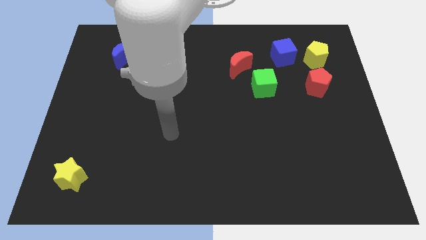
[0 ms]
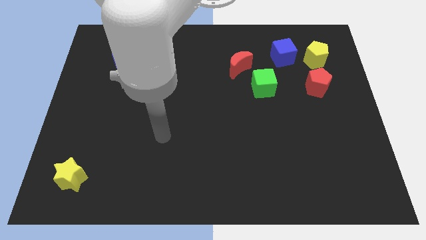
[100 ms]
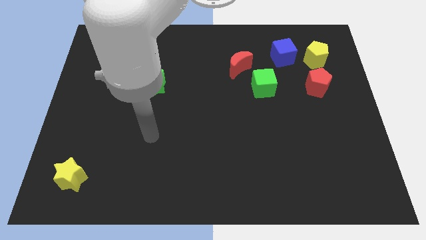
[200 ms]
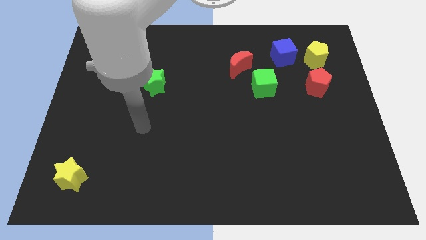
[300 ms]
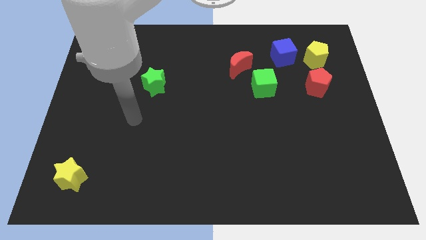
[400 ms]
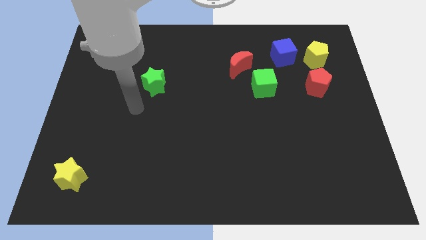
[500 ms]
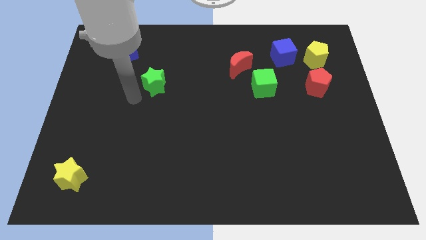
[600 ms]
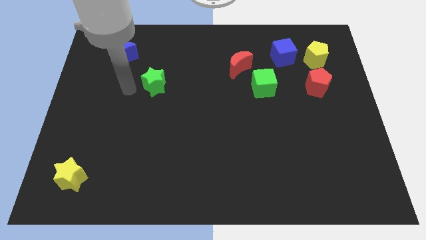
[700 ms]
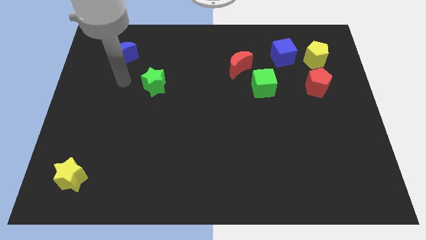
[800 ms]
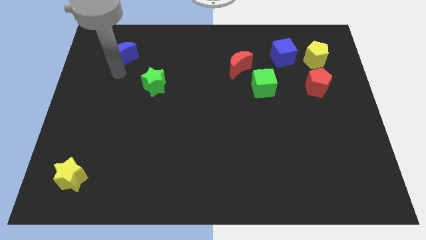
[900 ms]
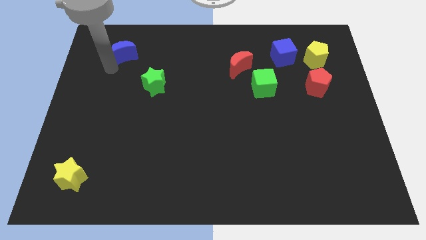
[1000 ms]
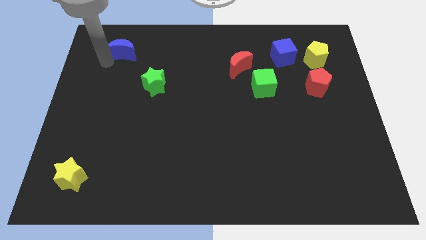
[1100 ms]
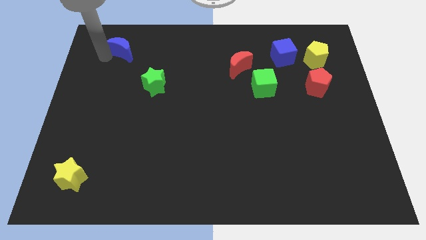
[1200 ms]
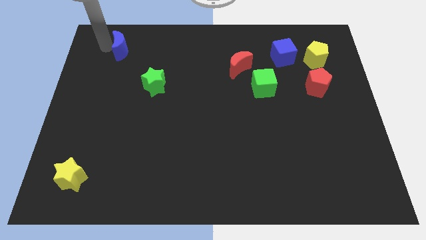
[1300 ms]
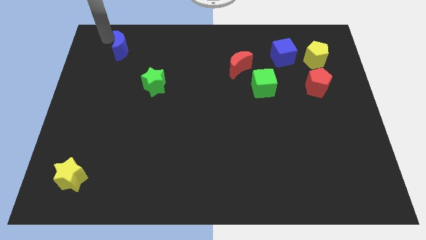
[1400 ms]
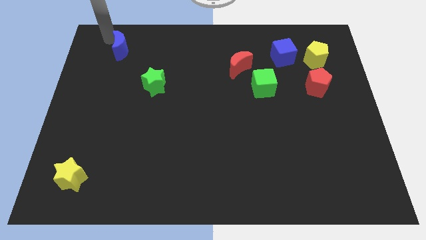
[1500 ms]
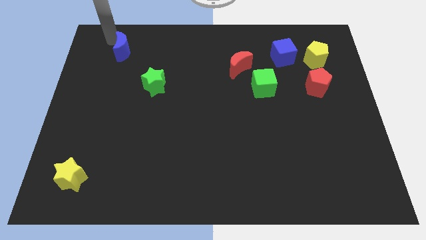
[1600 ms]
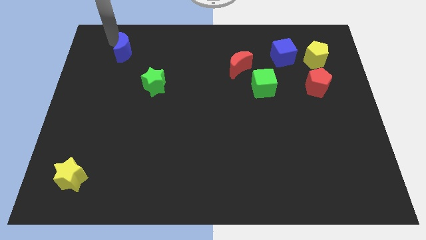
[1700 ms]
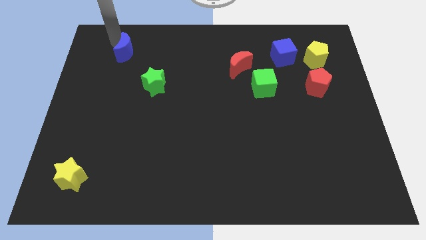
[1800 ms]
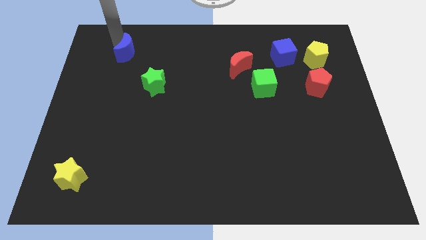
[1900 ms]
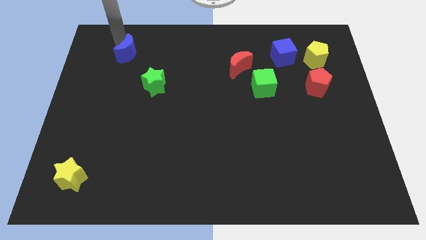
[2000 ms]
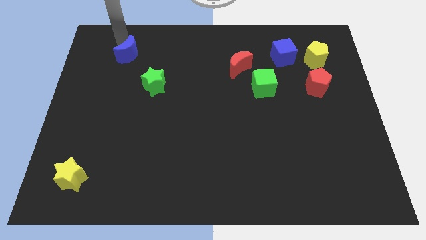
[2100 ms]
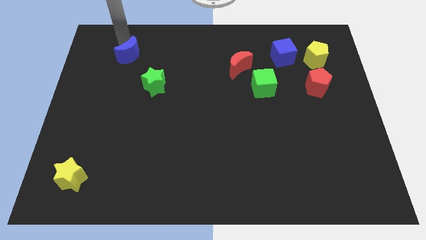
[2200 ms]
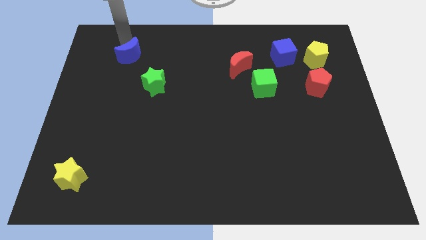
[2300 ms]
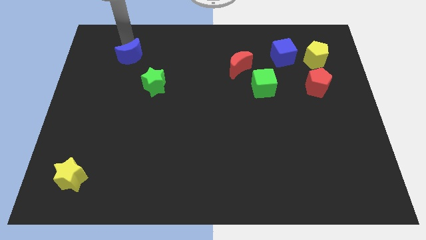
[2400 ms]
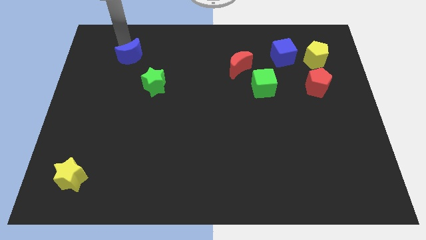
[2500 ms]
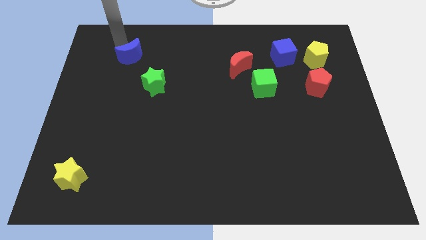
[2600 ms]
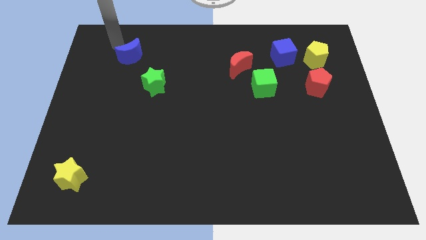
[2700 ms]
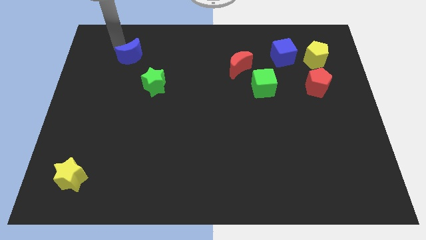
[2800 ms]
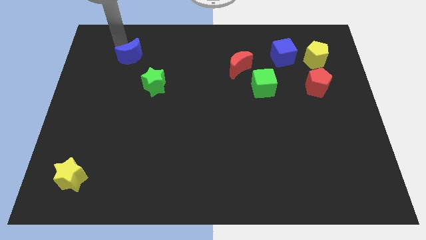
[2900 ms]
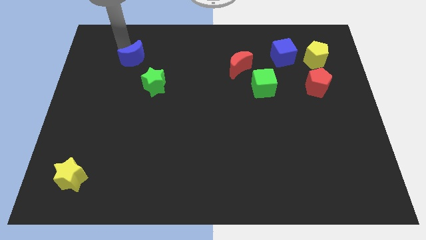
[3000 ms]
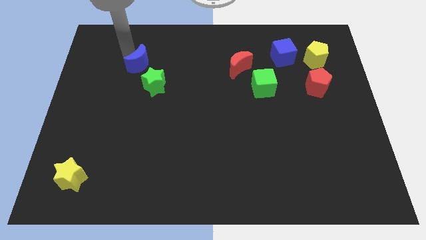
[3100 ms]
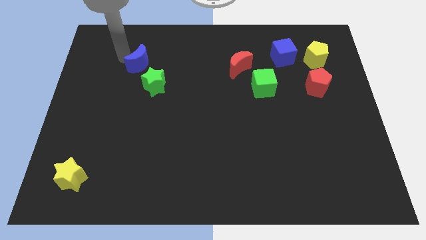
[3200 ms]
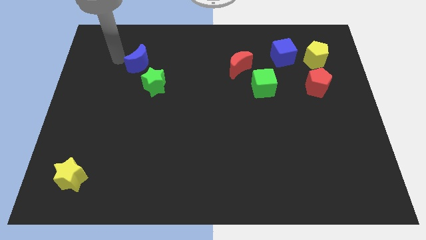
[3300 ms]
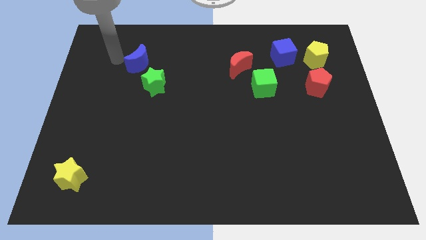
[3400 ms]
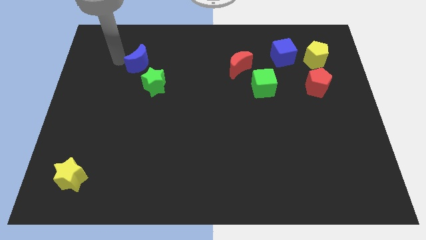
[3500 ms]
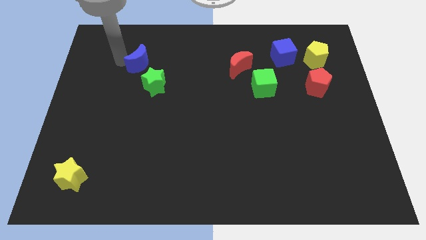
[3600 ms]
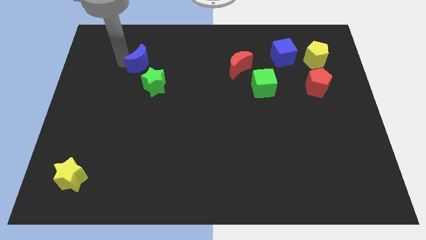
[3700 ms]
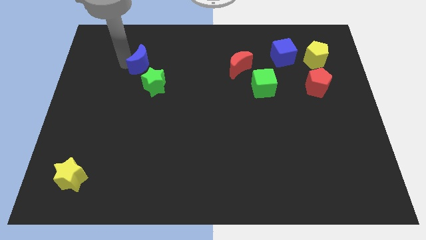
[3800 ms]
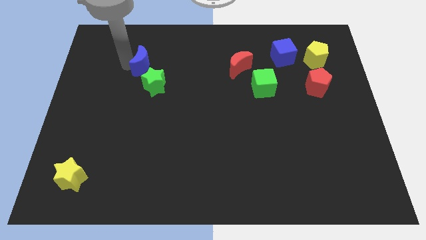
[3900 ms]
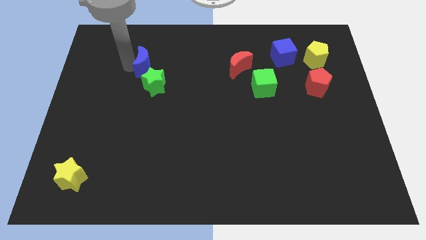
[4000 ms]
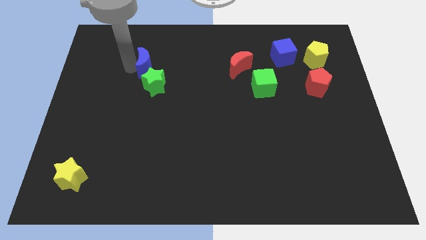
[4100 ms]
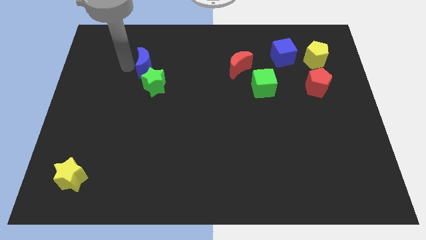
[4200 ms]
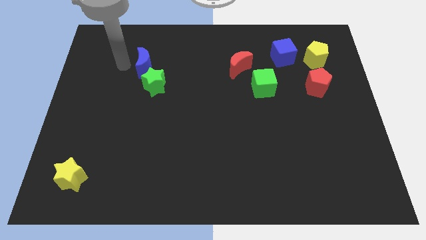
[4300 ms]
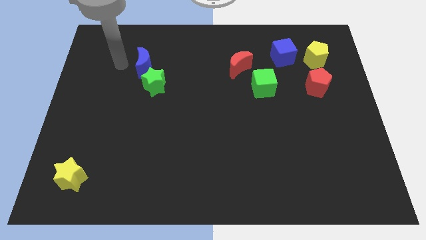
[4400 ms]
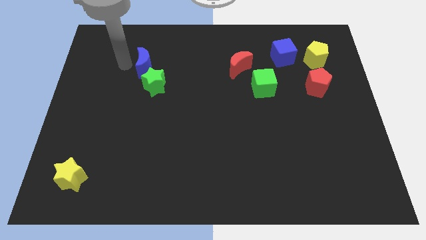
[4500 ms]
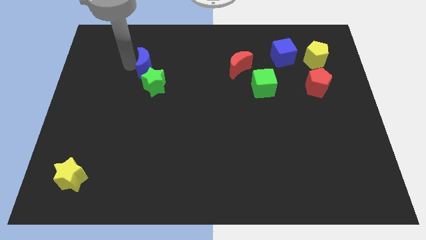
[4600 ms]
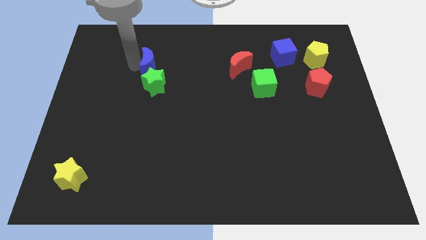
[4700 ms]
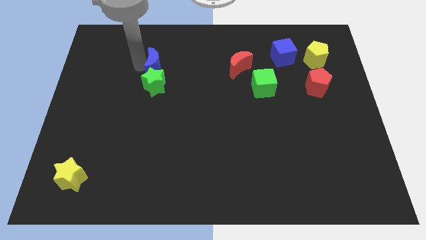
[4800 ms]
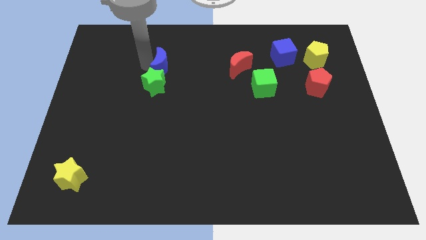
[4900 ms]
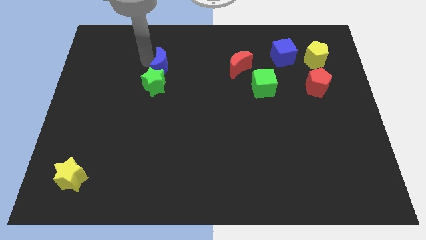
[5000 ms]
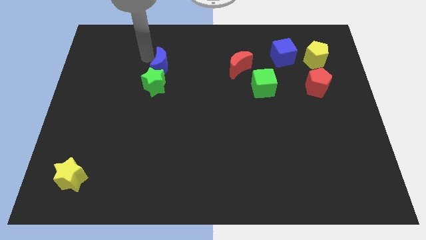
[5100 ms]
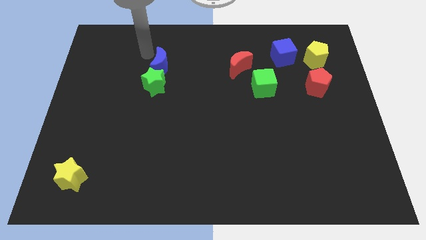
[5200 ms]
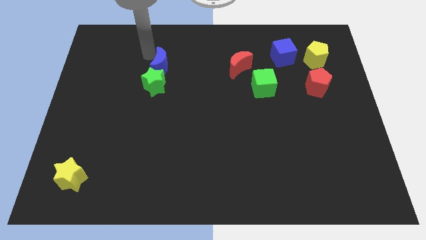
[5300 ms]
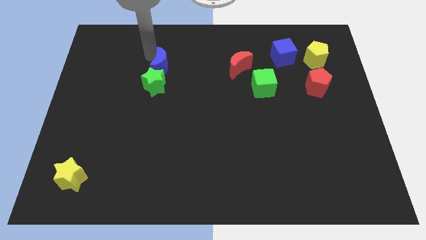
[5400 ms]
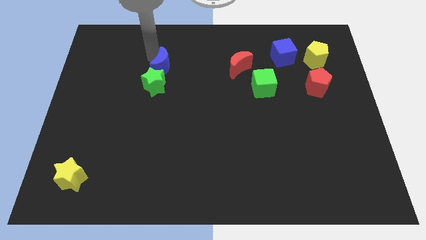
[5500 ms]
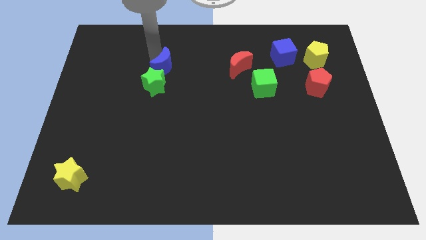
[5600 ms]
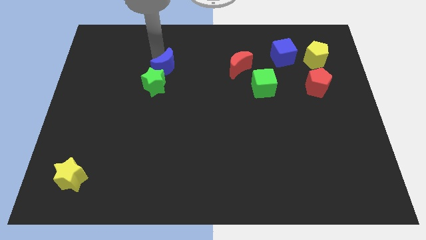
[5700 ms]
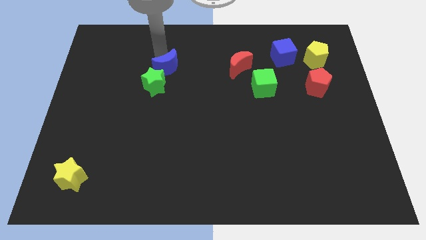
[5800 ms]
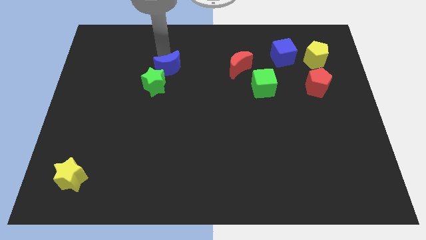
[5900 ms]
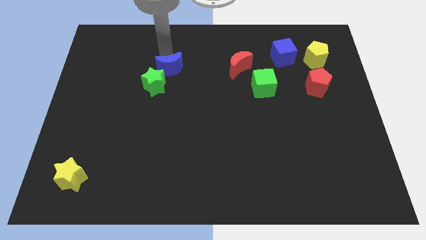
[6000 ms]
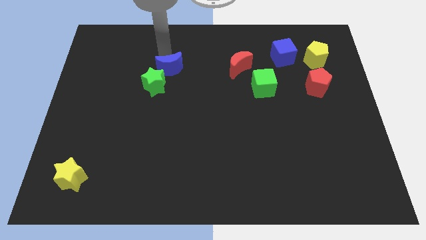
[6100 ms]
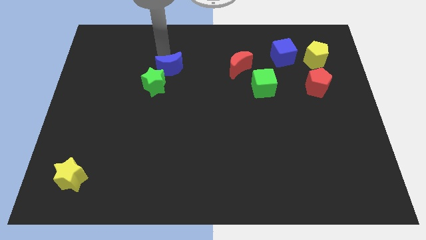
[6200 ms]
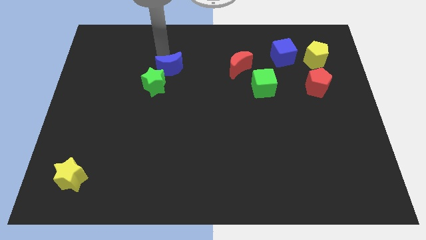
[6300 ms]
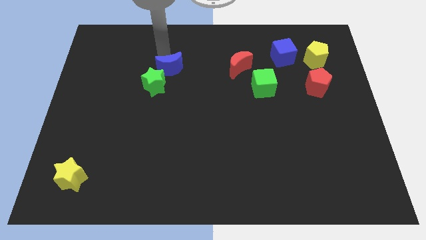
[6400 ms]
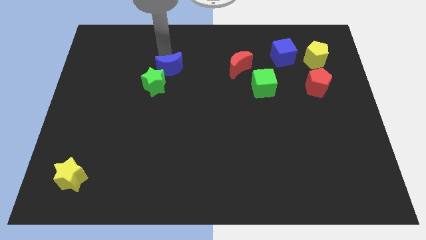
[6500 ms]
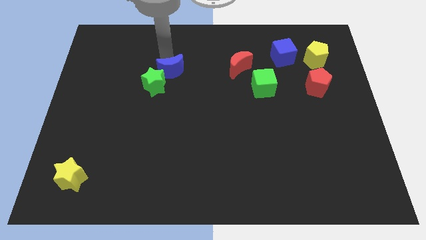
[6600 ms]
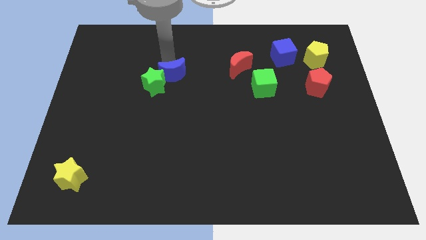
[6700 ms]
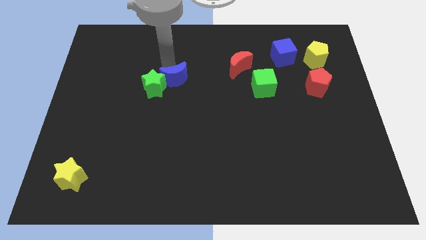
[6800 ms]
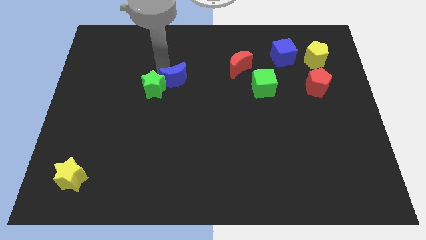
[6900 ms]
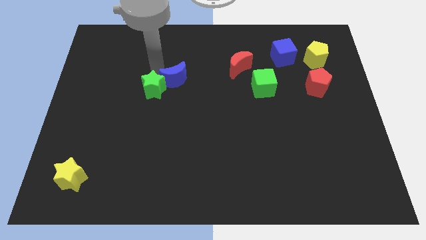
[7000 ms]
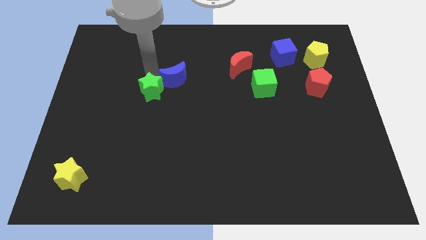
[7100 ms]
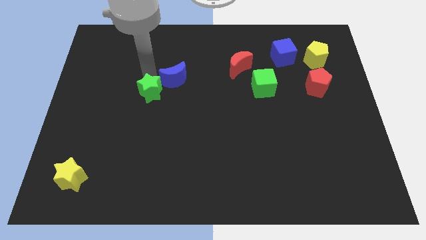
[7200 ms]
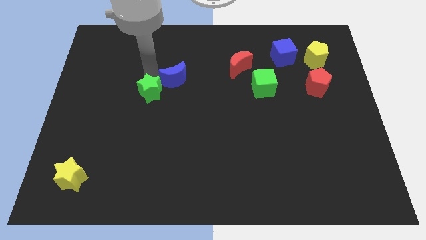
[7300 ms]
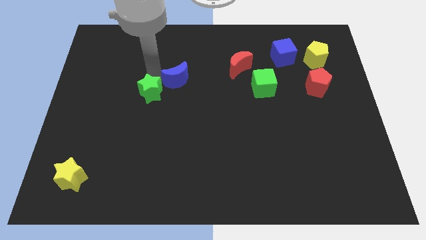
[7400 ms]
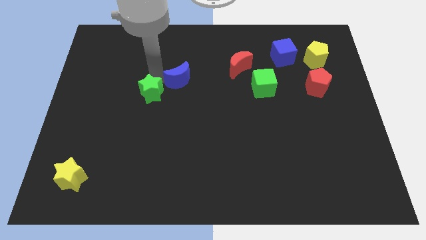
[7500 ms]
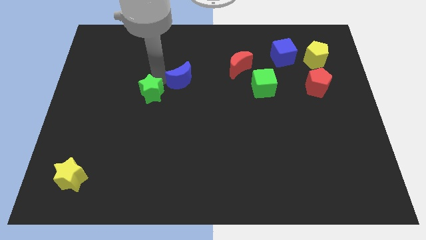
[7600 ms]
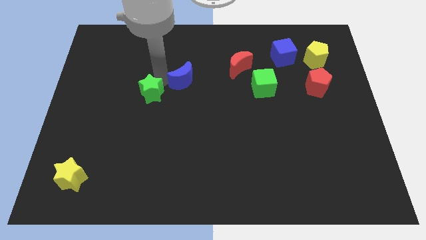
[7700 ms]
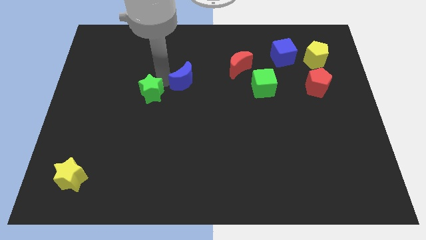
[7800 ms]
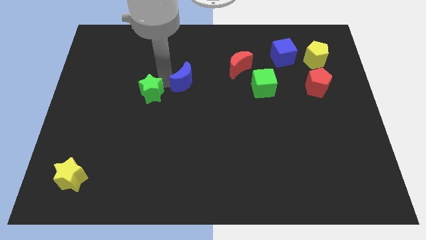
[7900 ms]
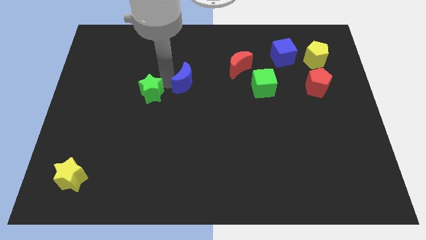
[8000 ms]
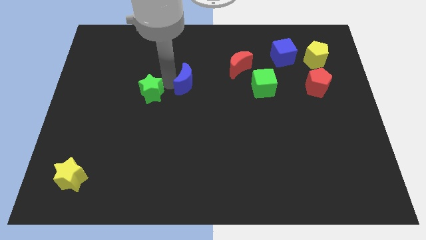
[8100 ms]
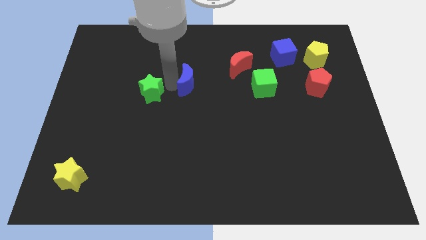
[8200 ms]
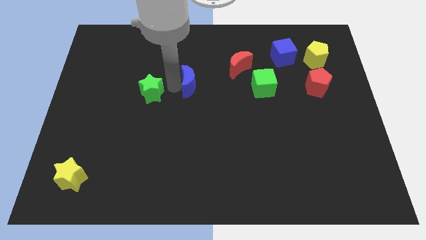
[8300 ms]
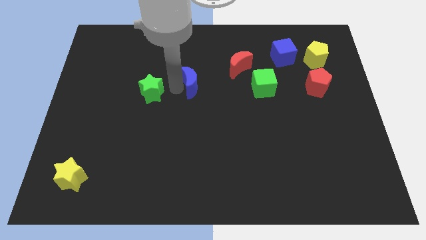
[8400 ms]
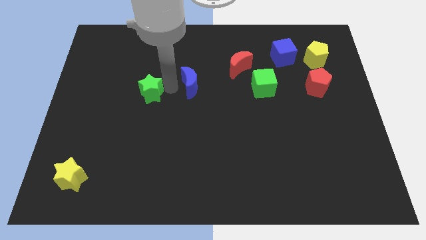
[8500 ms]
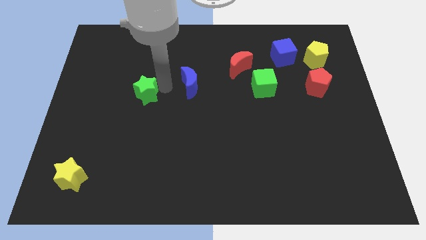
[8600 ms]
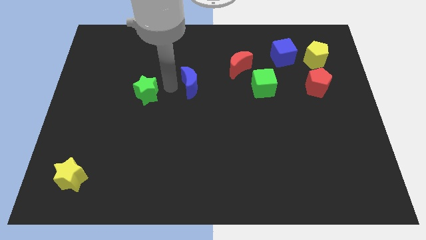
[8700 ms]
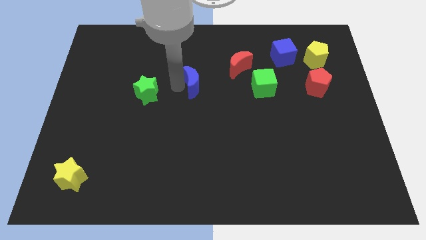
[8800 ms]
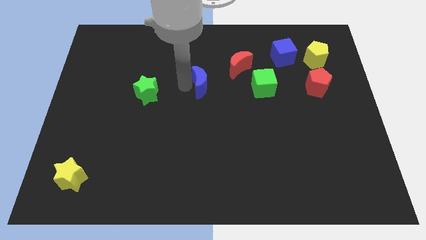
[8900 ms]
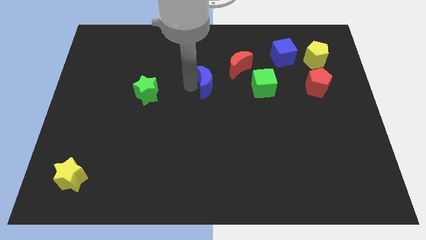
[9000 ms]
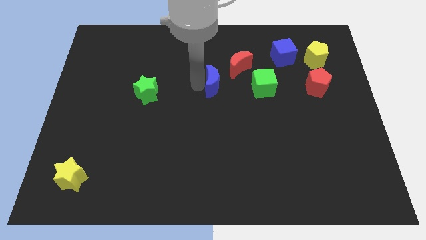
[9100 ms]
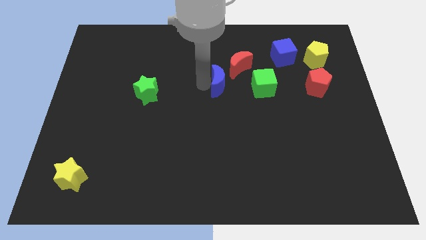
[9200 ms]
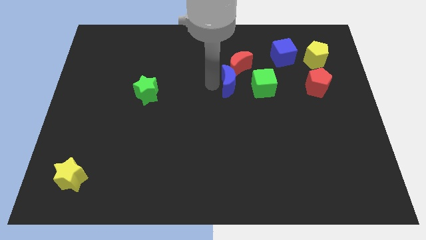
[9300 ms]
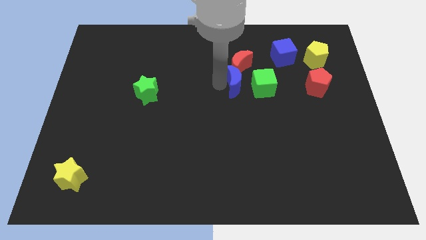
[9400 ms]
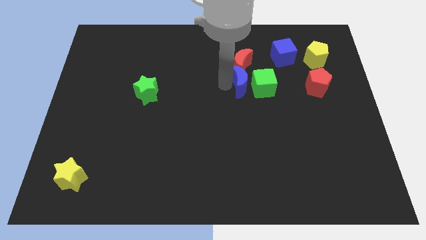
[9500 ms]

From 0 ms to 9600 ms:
move the blue moon next to the green cube
